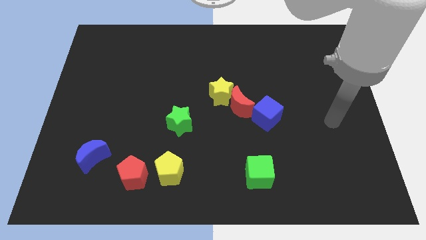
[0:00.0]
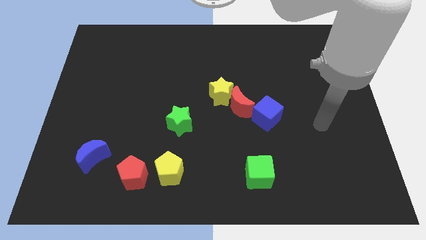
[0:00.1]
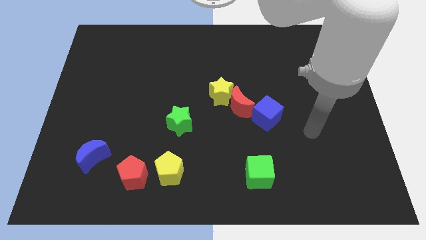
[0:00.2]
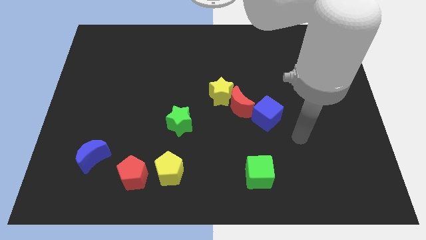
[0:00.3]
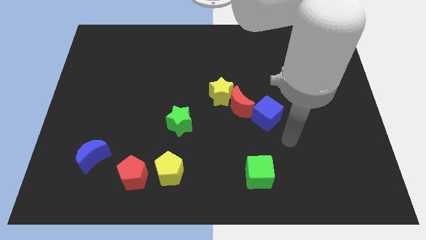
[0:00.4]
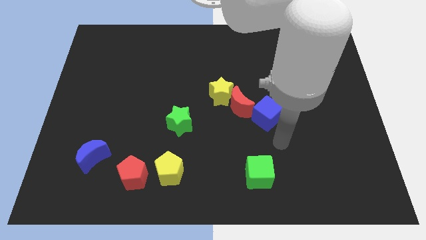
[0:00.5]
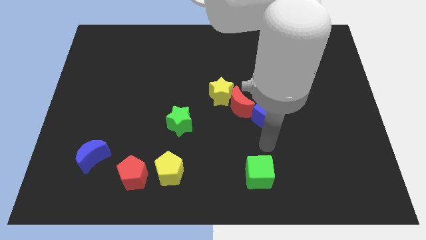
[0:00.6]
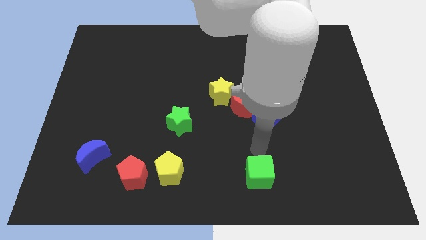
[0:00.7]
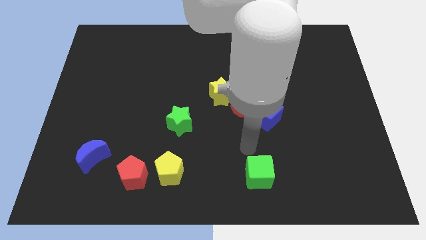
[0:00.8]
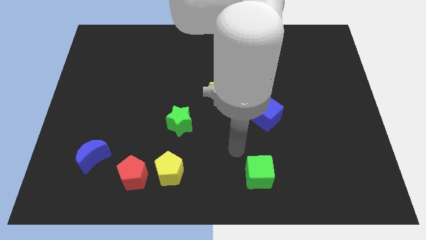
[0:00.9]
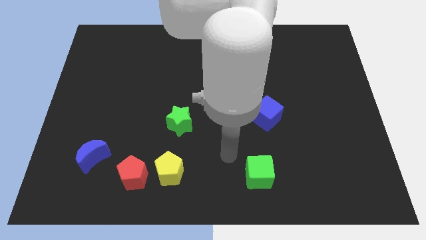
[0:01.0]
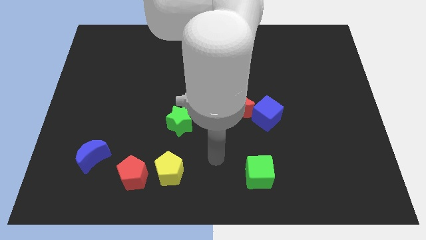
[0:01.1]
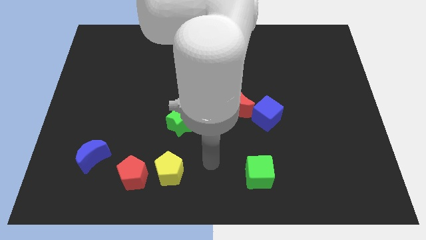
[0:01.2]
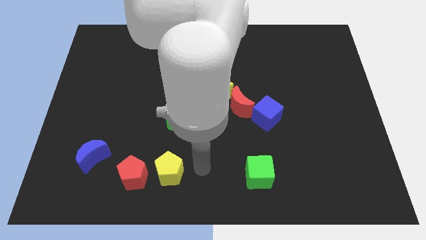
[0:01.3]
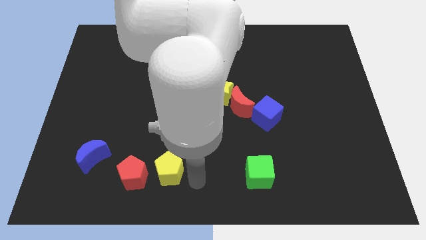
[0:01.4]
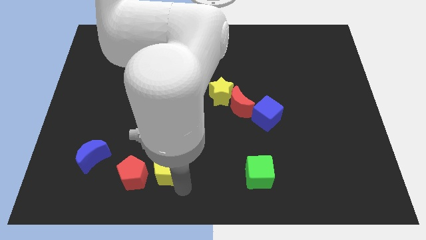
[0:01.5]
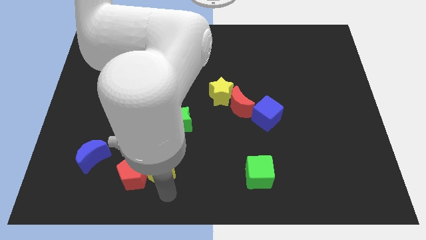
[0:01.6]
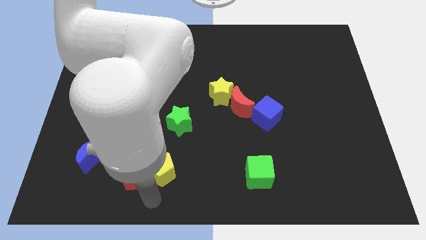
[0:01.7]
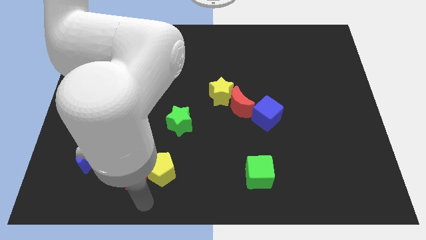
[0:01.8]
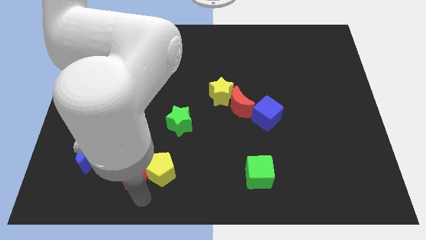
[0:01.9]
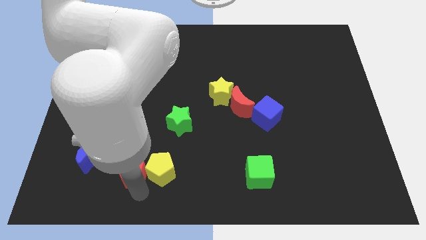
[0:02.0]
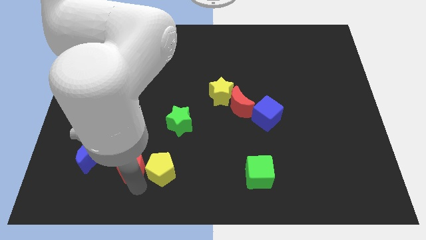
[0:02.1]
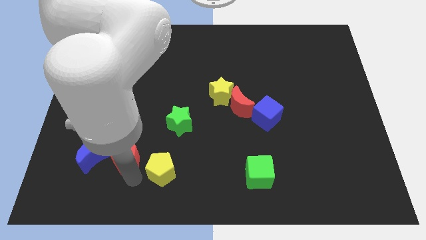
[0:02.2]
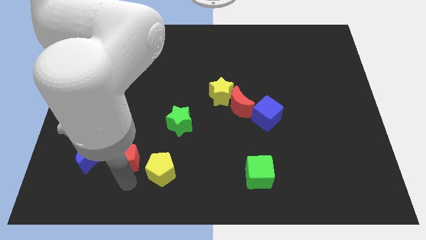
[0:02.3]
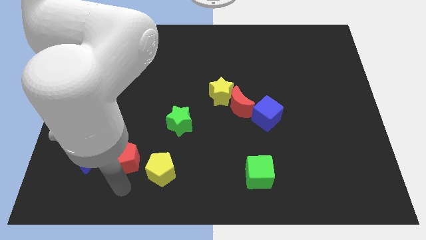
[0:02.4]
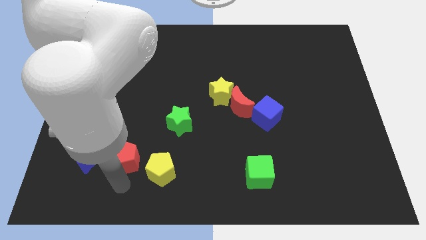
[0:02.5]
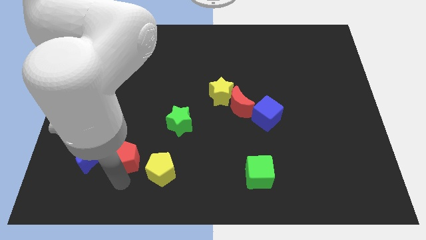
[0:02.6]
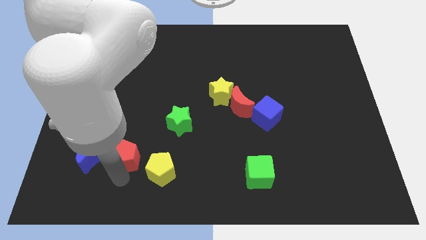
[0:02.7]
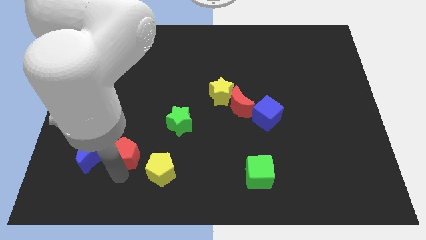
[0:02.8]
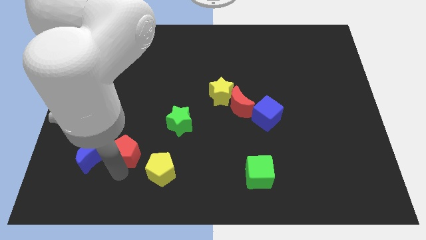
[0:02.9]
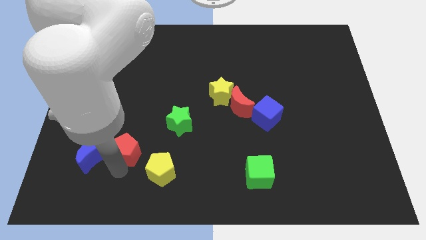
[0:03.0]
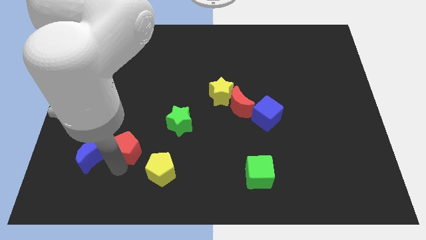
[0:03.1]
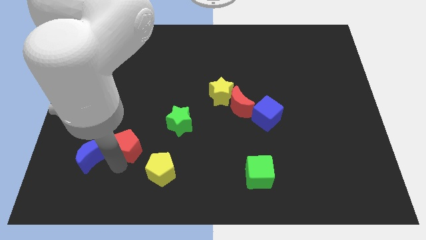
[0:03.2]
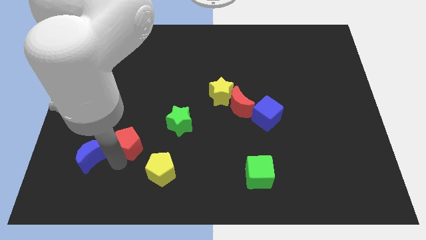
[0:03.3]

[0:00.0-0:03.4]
slightly slide the red pentagon upwards

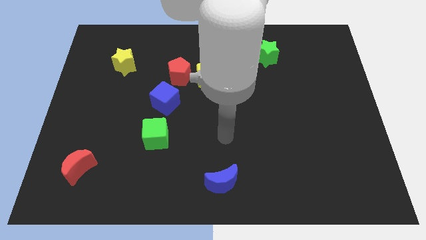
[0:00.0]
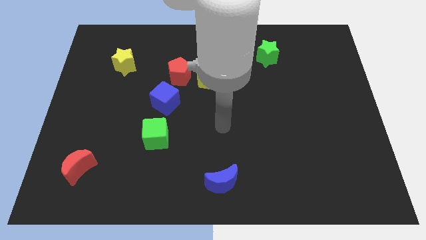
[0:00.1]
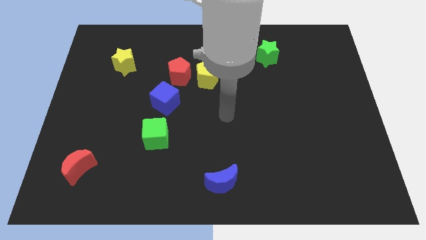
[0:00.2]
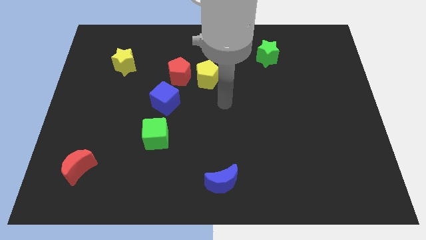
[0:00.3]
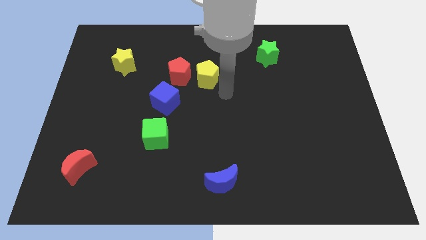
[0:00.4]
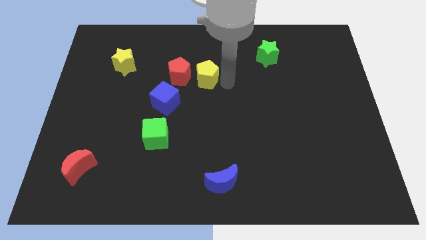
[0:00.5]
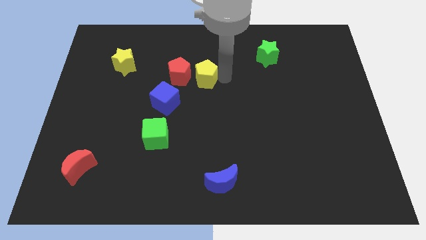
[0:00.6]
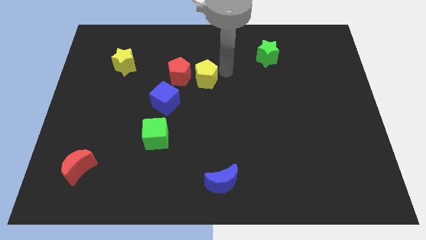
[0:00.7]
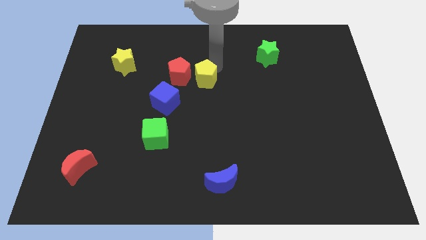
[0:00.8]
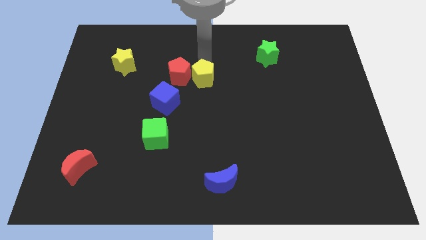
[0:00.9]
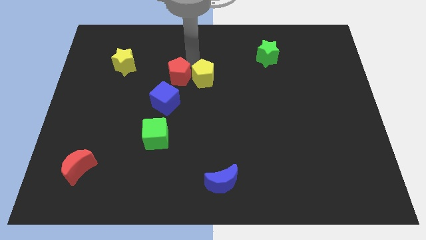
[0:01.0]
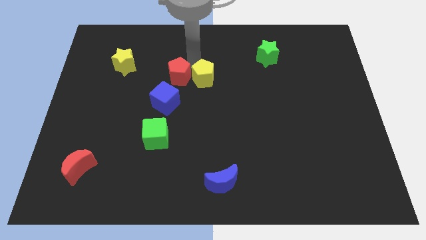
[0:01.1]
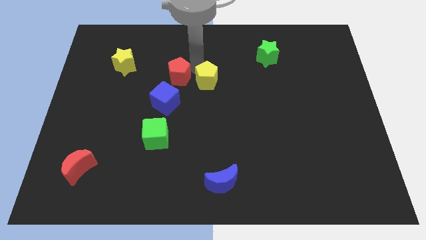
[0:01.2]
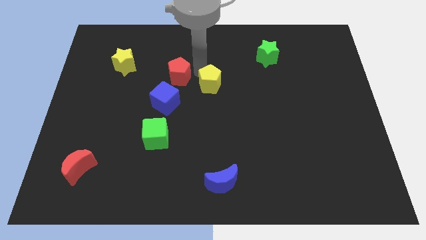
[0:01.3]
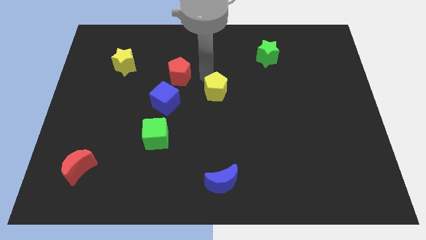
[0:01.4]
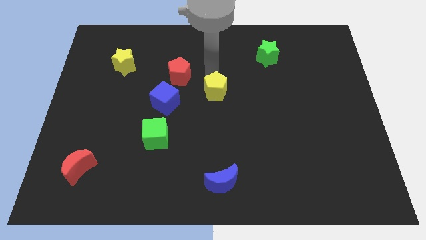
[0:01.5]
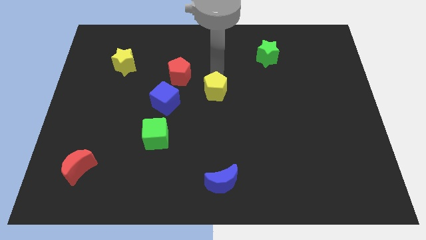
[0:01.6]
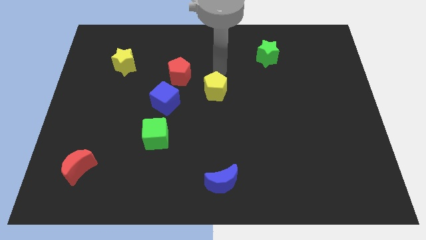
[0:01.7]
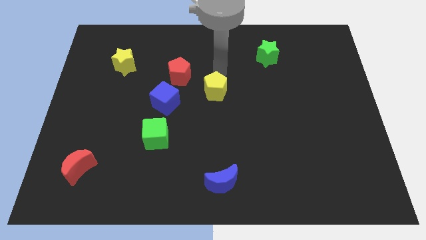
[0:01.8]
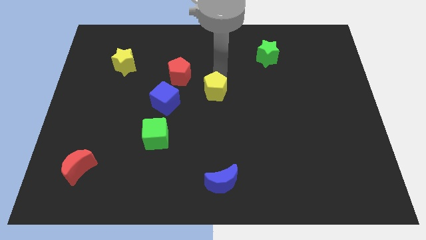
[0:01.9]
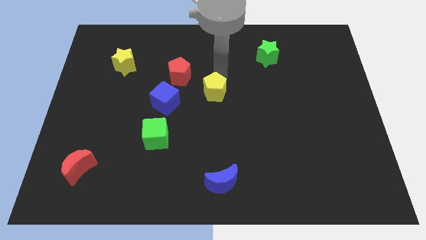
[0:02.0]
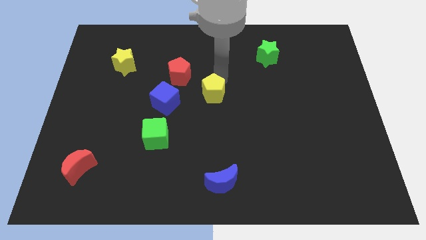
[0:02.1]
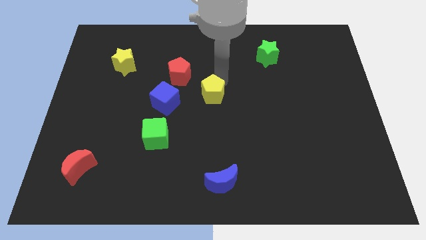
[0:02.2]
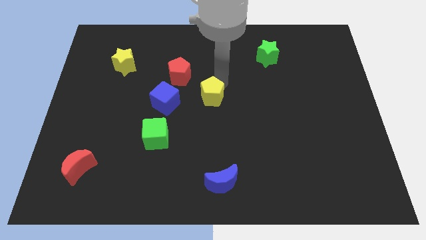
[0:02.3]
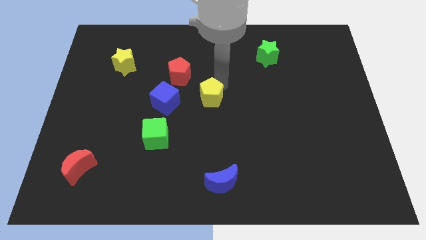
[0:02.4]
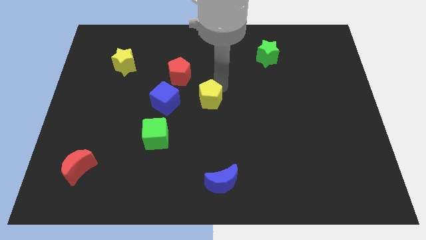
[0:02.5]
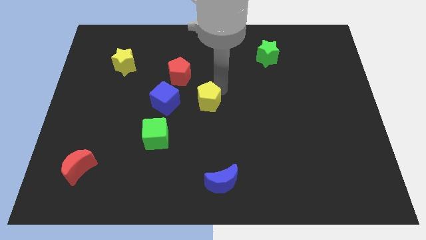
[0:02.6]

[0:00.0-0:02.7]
slightly move the yellow pentagon downwards

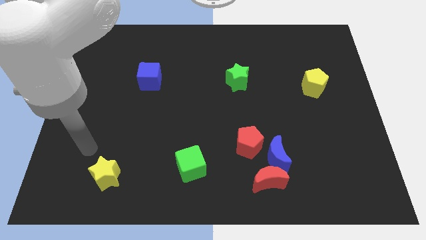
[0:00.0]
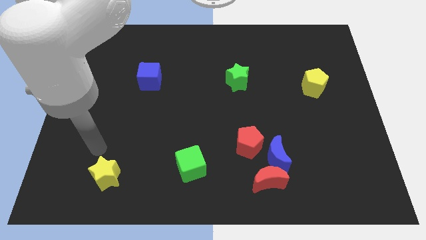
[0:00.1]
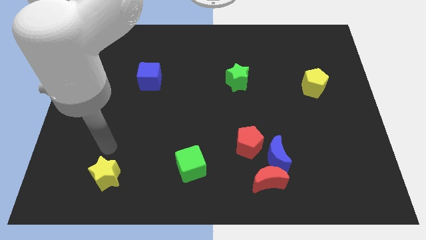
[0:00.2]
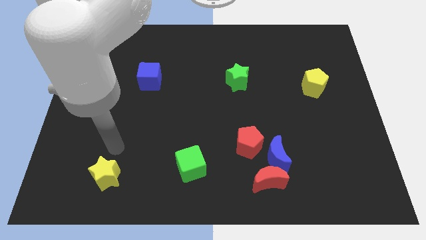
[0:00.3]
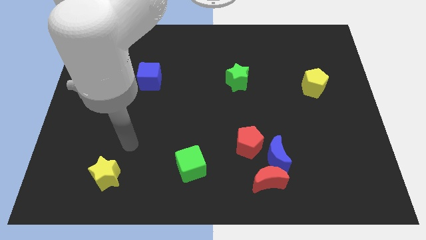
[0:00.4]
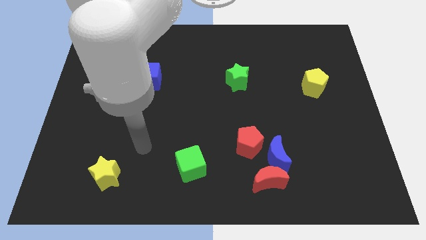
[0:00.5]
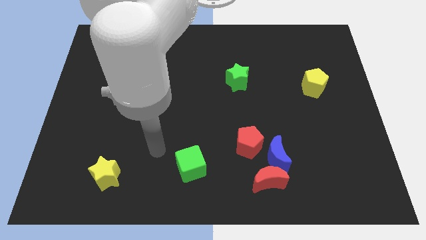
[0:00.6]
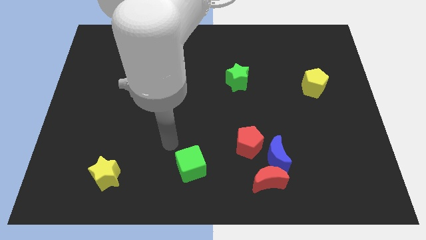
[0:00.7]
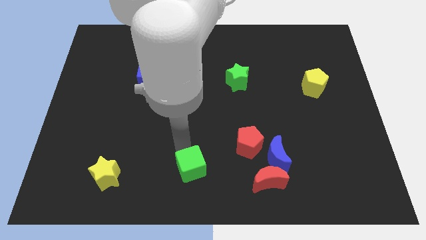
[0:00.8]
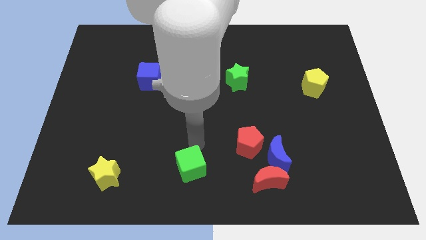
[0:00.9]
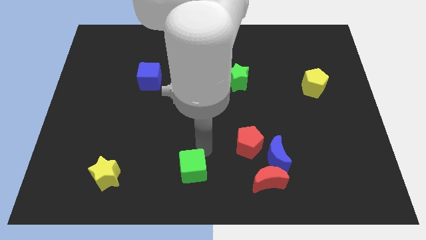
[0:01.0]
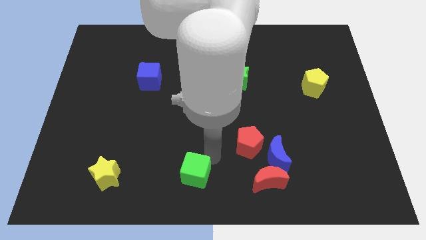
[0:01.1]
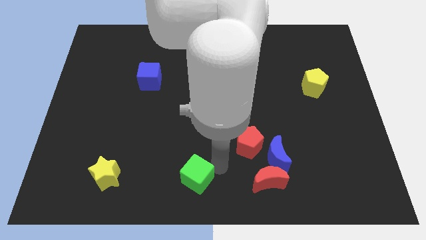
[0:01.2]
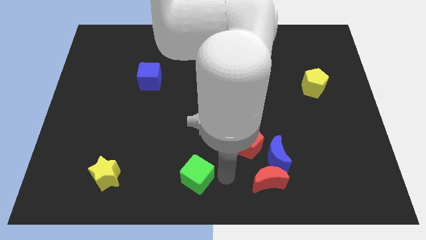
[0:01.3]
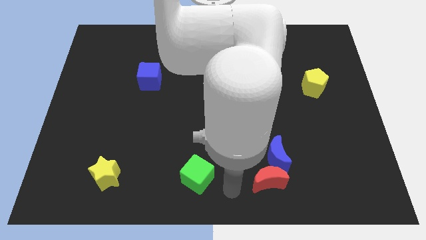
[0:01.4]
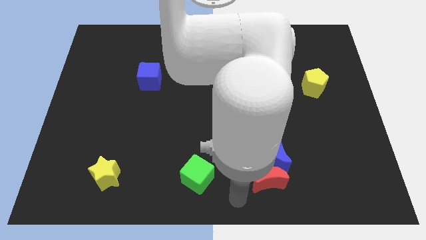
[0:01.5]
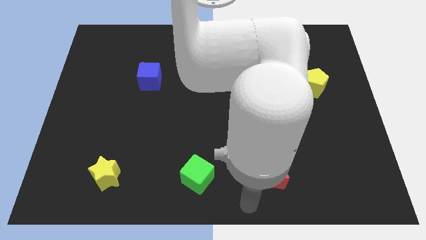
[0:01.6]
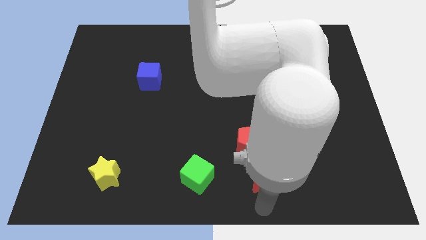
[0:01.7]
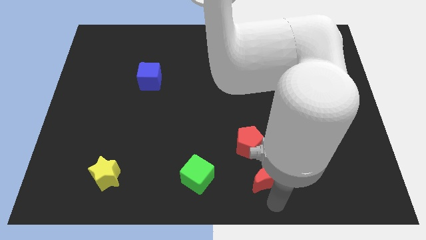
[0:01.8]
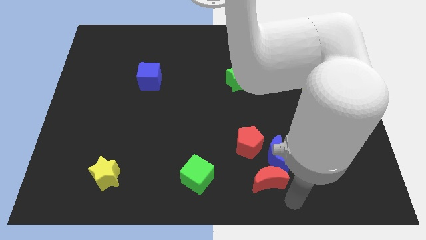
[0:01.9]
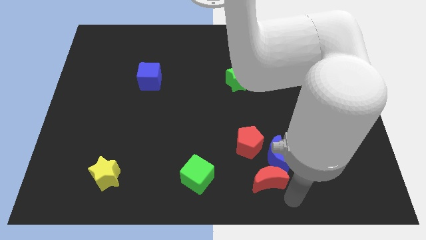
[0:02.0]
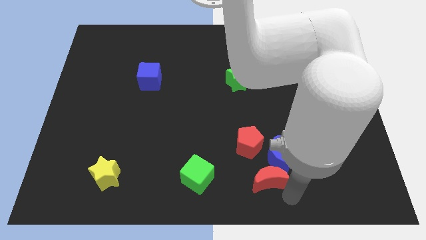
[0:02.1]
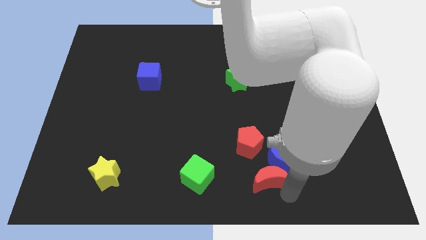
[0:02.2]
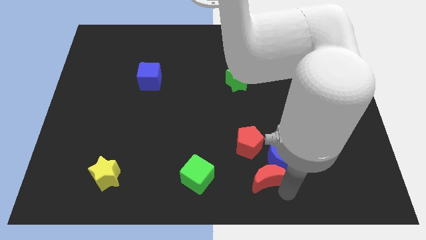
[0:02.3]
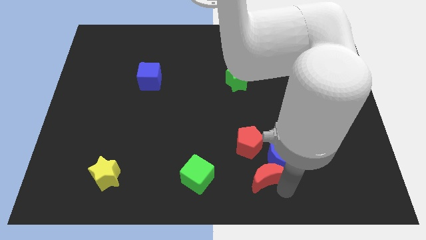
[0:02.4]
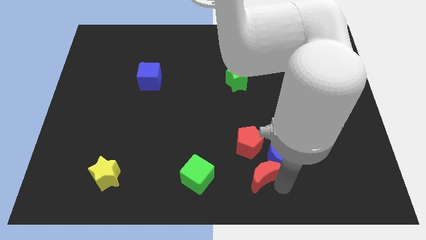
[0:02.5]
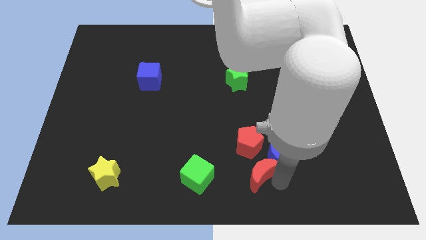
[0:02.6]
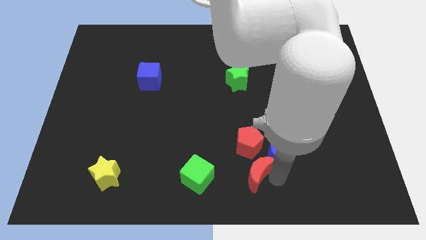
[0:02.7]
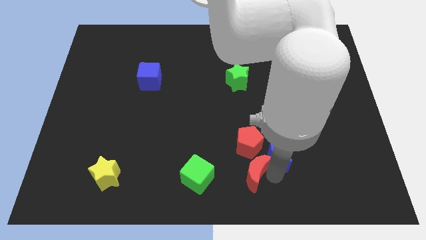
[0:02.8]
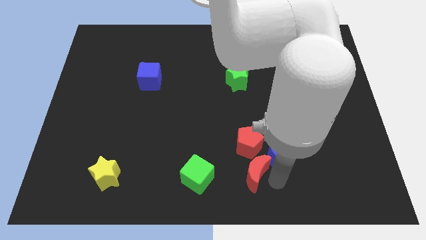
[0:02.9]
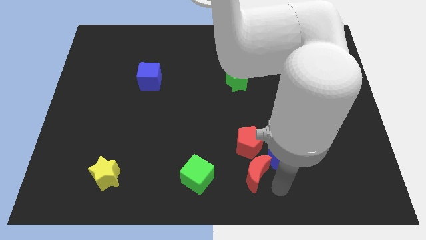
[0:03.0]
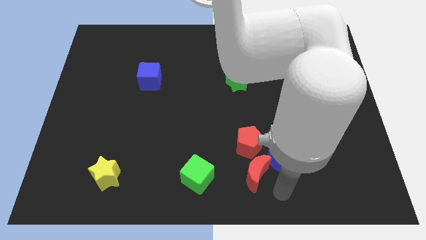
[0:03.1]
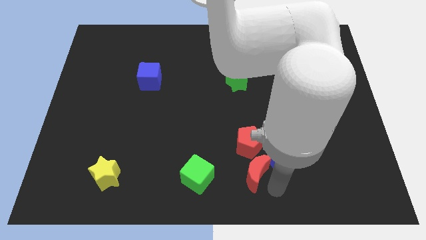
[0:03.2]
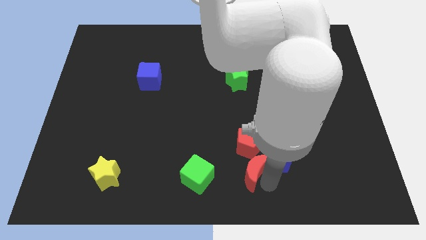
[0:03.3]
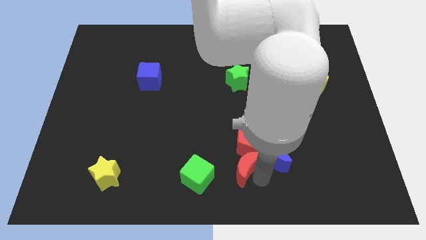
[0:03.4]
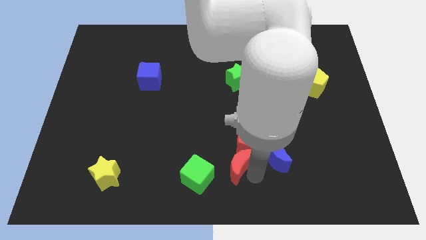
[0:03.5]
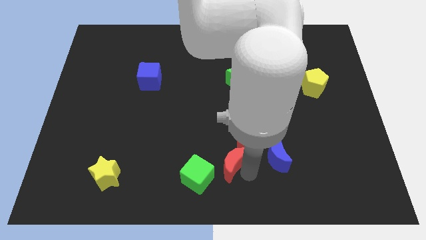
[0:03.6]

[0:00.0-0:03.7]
slightly slide the red moon up and to the left
